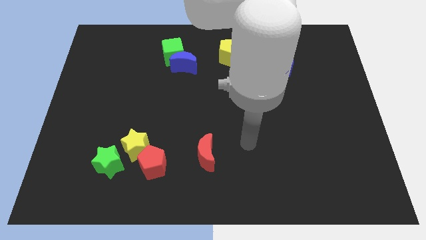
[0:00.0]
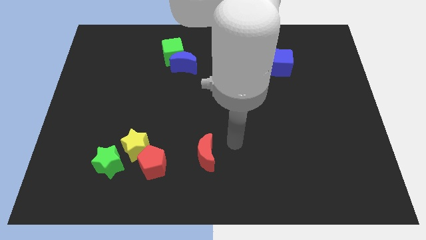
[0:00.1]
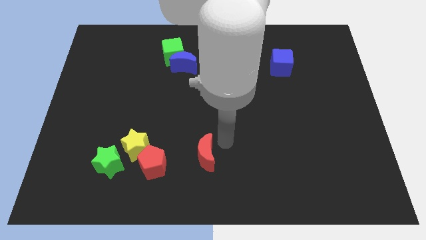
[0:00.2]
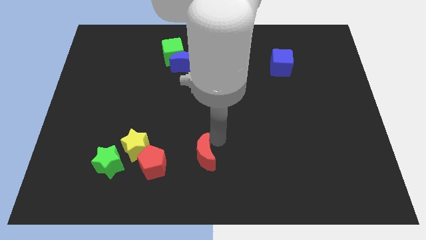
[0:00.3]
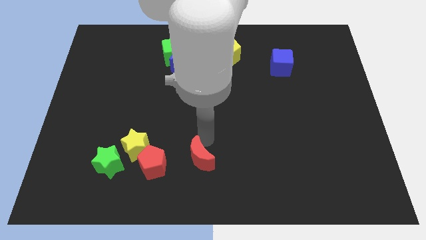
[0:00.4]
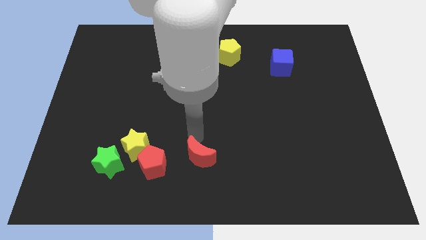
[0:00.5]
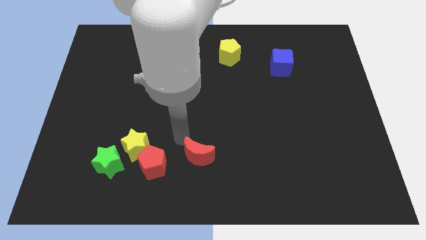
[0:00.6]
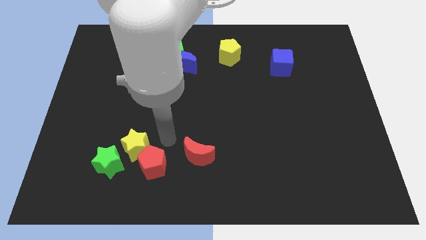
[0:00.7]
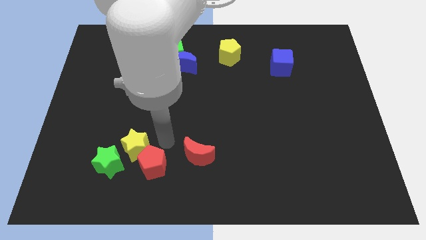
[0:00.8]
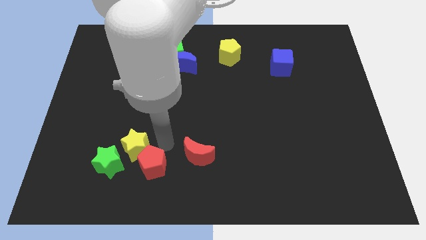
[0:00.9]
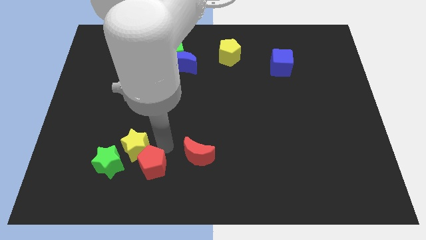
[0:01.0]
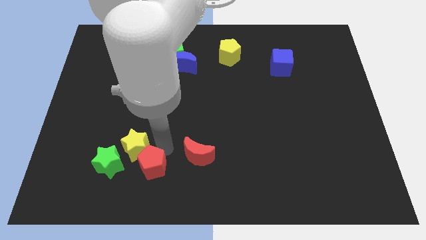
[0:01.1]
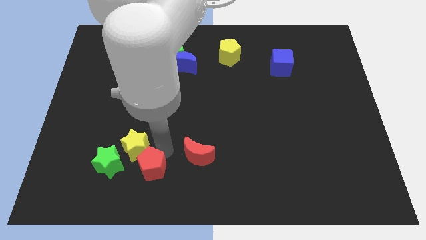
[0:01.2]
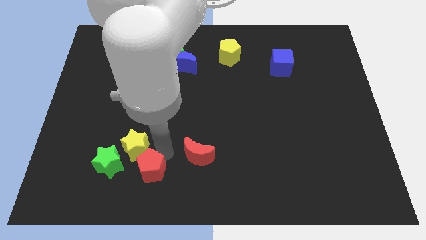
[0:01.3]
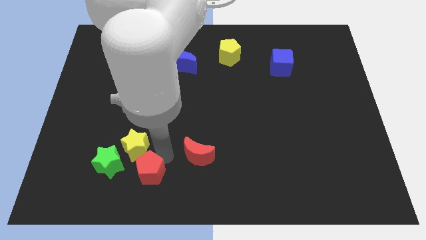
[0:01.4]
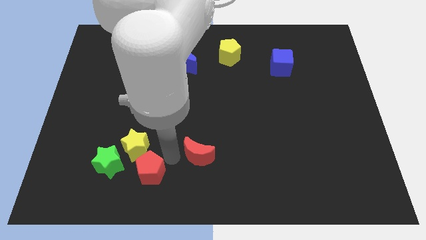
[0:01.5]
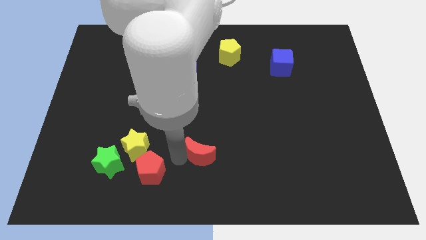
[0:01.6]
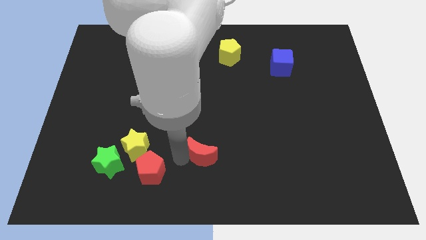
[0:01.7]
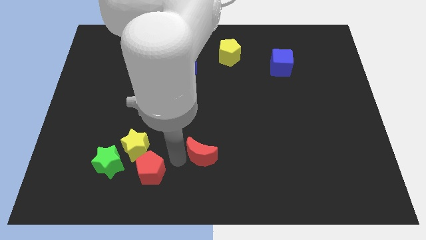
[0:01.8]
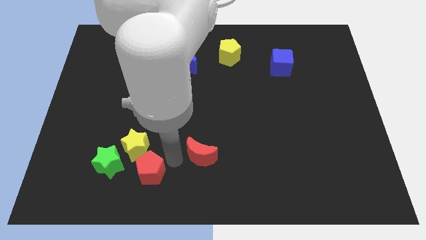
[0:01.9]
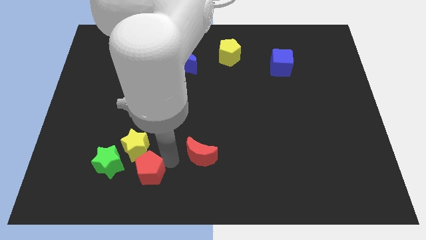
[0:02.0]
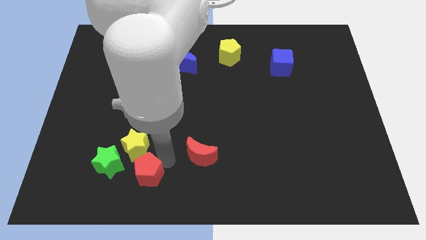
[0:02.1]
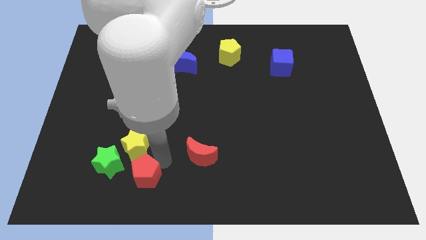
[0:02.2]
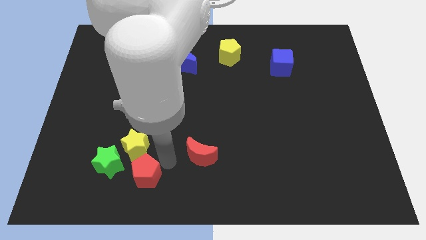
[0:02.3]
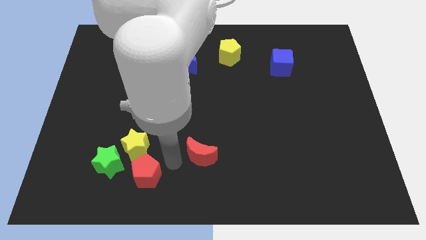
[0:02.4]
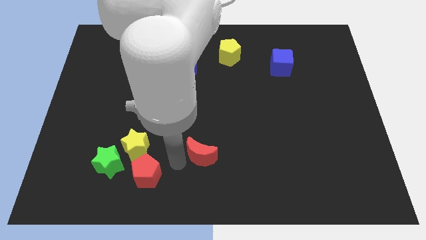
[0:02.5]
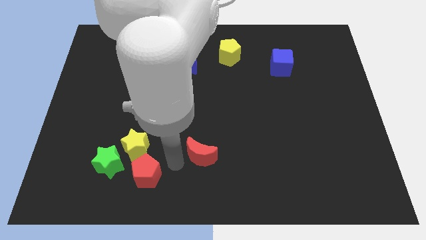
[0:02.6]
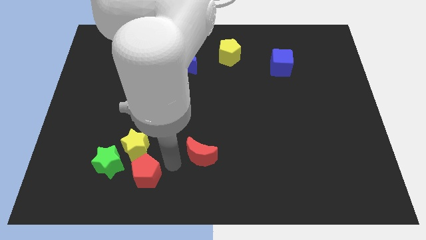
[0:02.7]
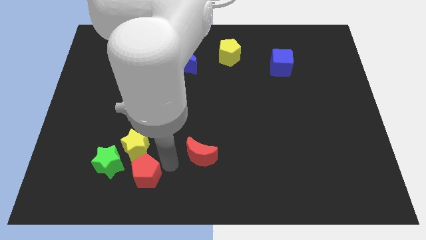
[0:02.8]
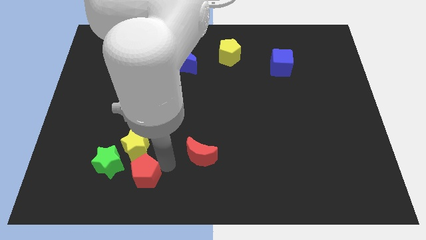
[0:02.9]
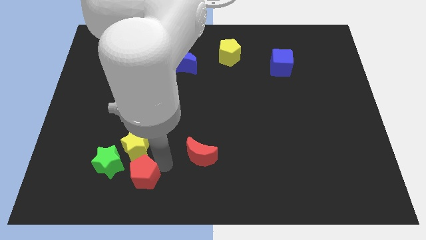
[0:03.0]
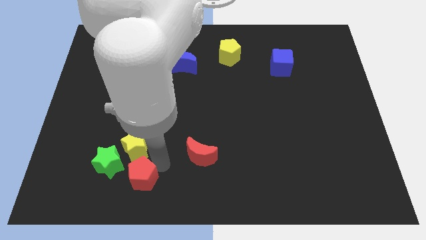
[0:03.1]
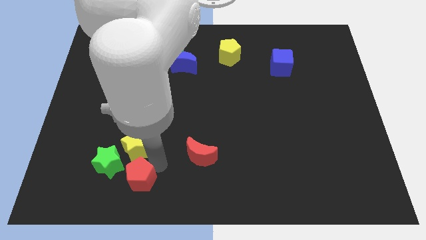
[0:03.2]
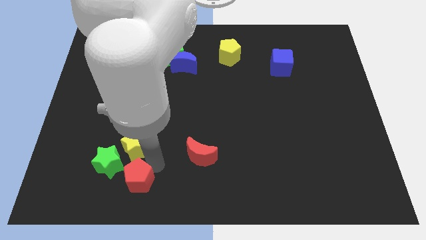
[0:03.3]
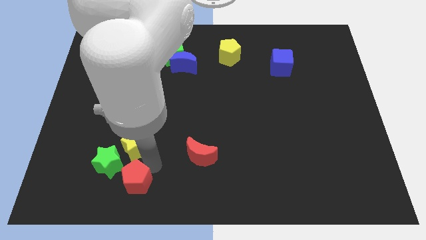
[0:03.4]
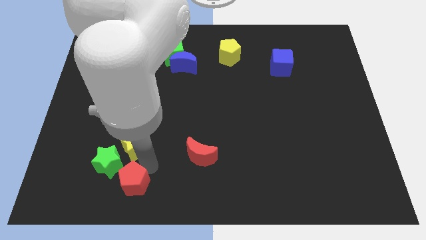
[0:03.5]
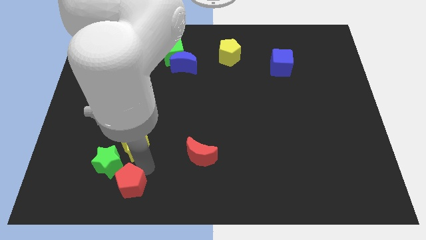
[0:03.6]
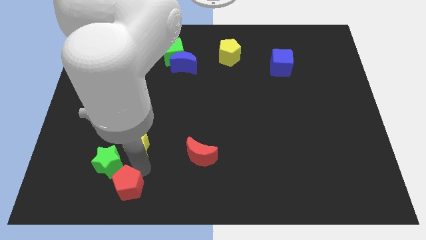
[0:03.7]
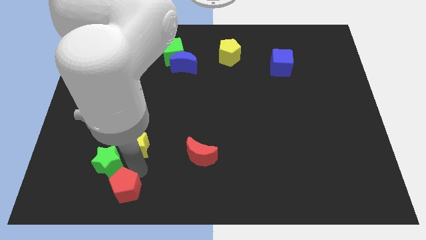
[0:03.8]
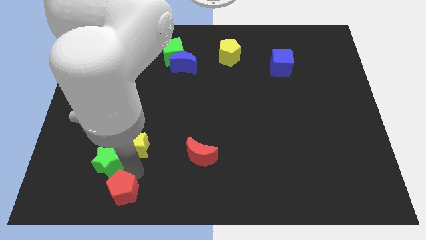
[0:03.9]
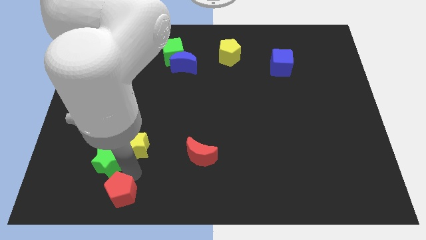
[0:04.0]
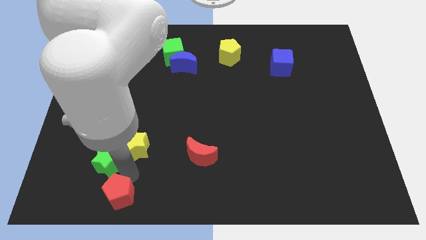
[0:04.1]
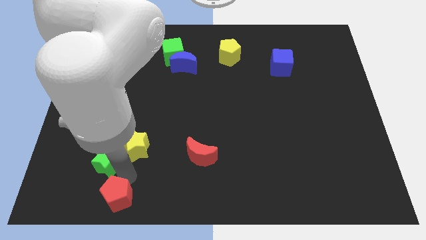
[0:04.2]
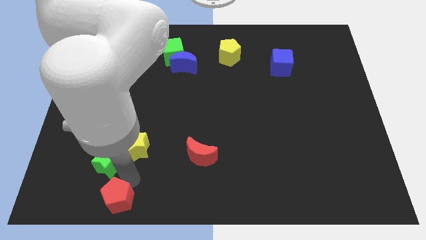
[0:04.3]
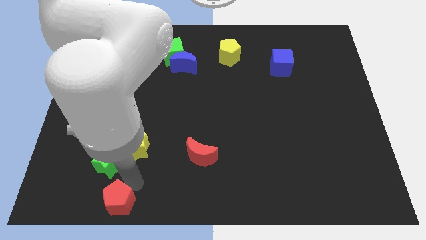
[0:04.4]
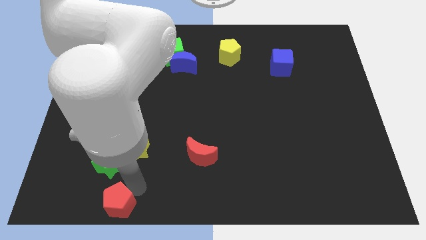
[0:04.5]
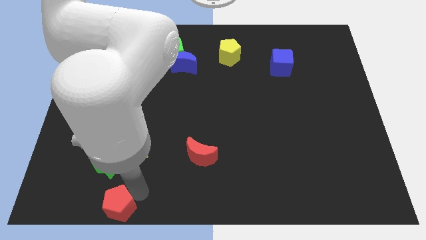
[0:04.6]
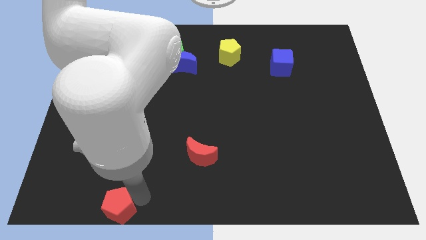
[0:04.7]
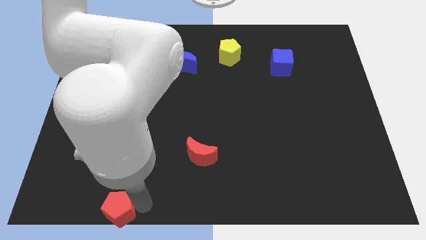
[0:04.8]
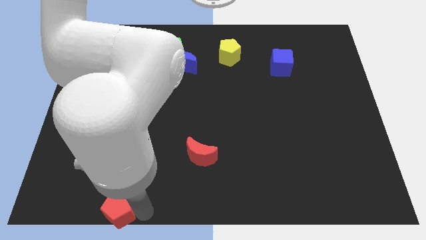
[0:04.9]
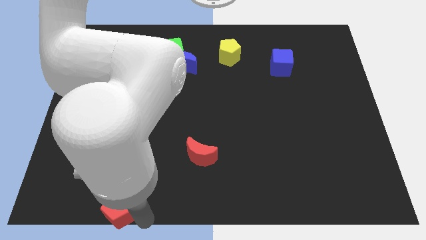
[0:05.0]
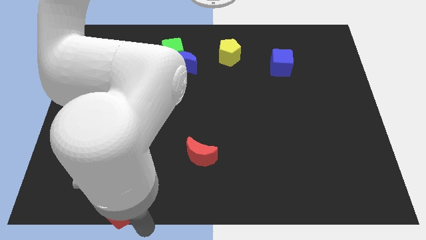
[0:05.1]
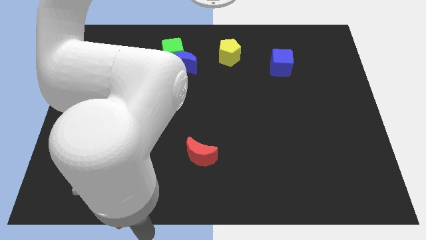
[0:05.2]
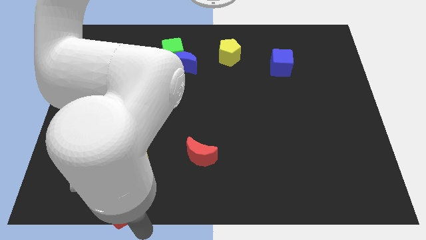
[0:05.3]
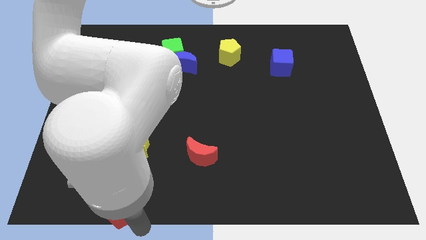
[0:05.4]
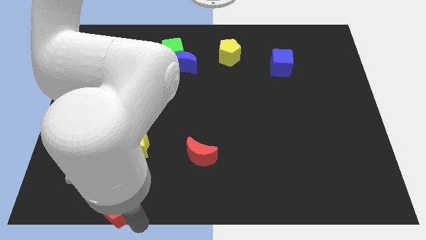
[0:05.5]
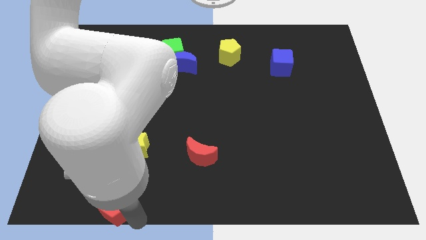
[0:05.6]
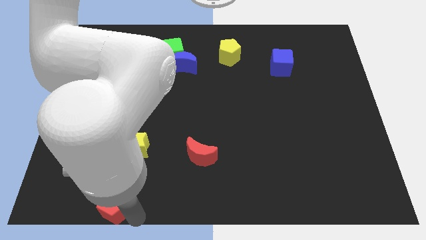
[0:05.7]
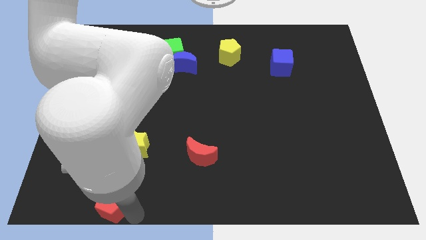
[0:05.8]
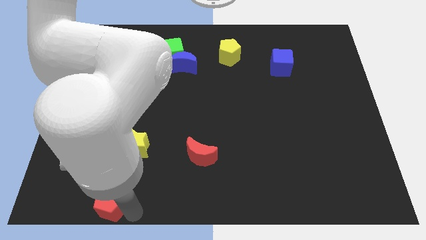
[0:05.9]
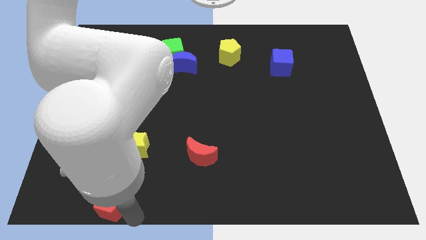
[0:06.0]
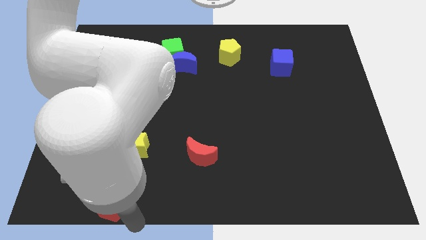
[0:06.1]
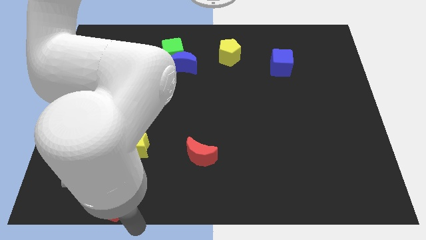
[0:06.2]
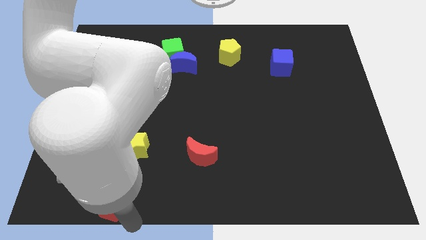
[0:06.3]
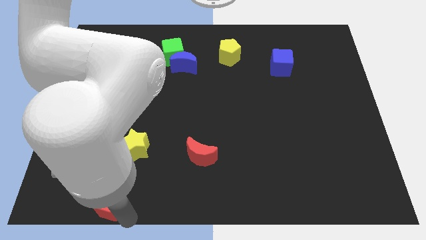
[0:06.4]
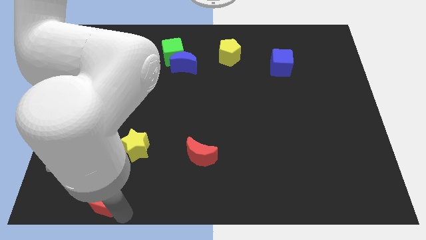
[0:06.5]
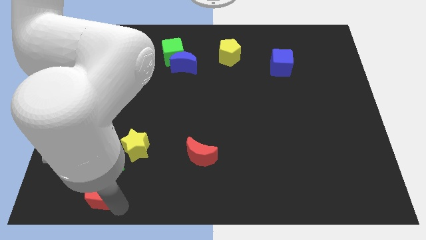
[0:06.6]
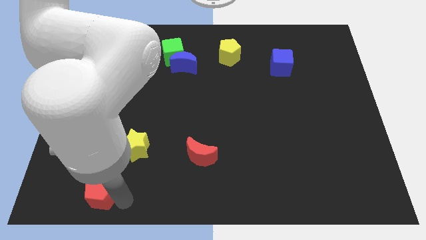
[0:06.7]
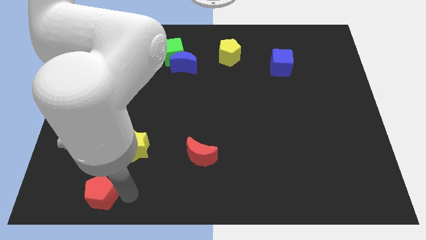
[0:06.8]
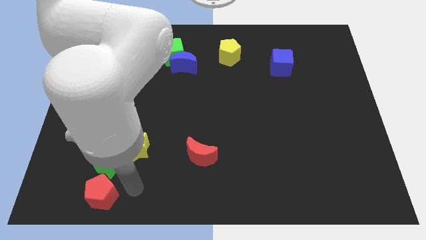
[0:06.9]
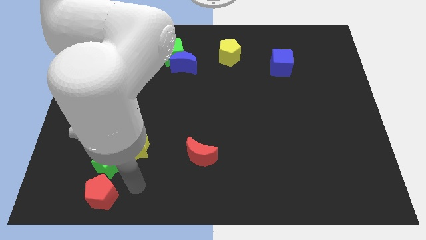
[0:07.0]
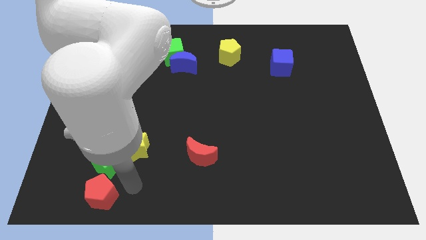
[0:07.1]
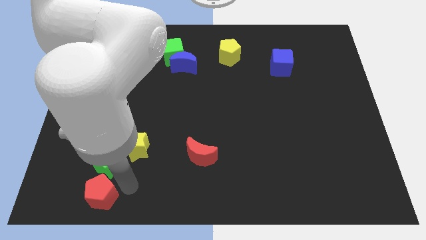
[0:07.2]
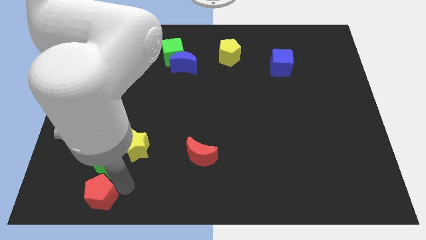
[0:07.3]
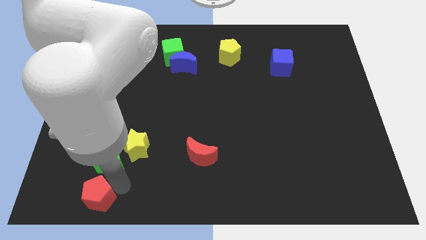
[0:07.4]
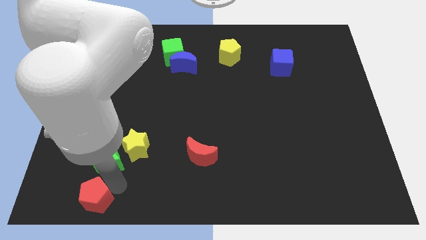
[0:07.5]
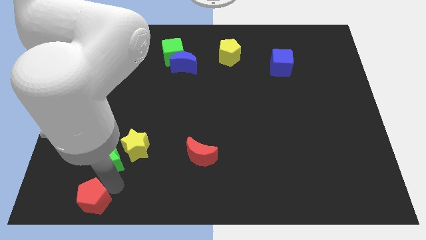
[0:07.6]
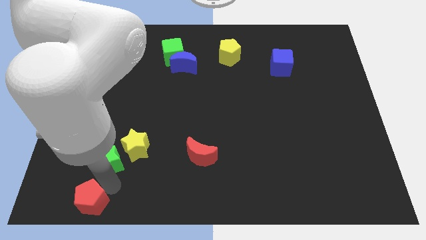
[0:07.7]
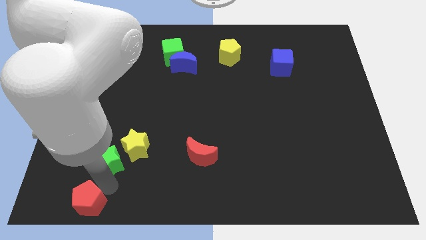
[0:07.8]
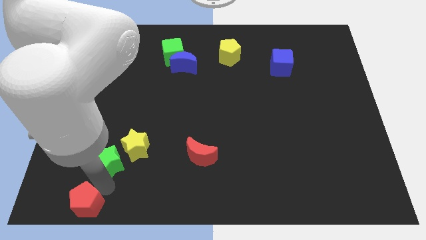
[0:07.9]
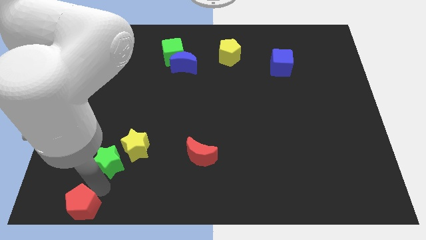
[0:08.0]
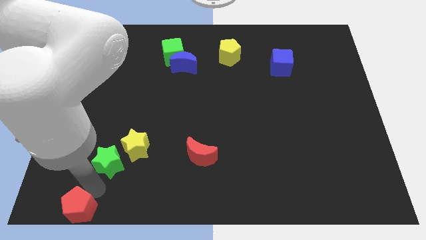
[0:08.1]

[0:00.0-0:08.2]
move the red pentagon to the bottom left of the board
